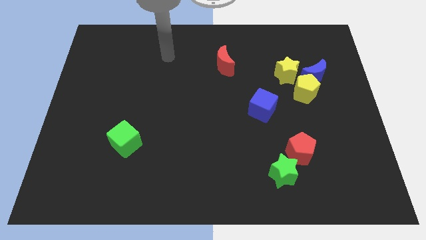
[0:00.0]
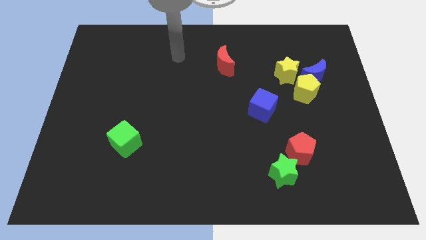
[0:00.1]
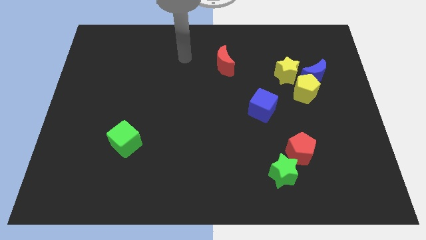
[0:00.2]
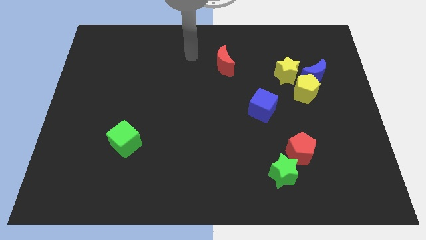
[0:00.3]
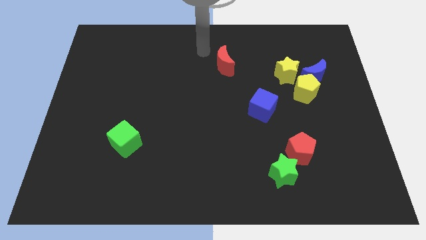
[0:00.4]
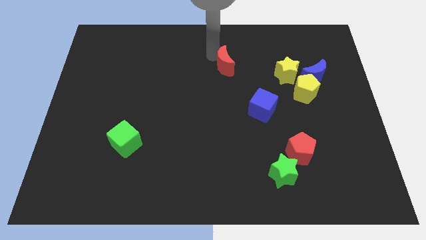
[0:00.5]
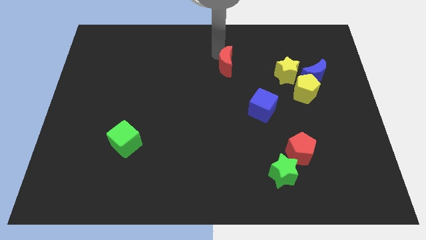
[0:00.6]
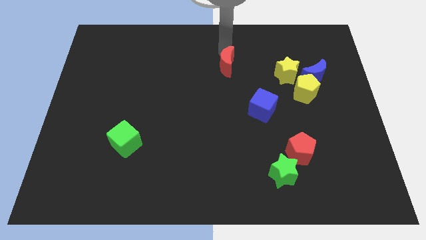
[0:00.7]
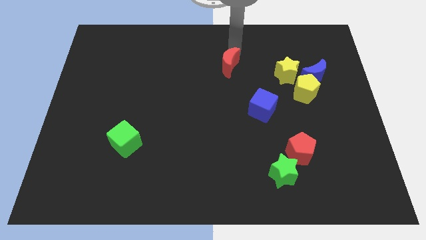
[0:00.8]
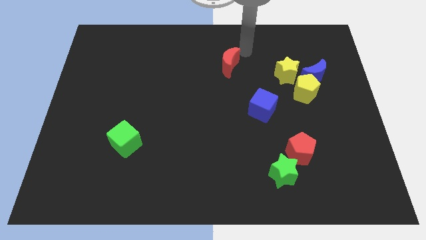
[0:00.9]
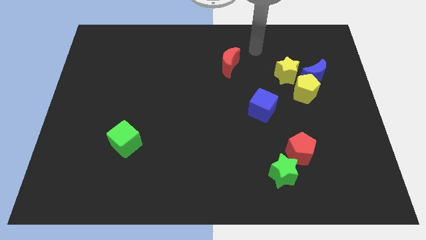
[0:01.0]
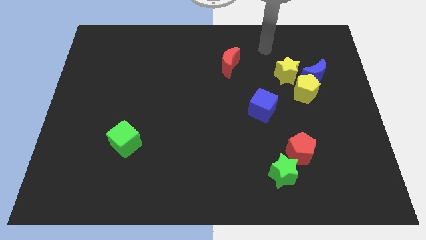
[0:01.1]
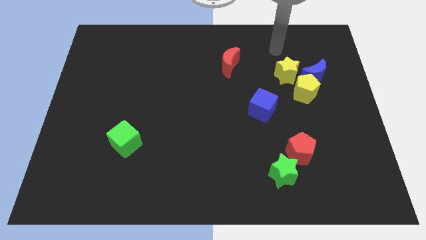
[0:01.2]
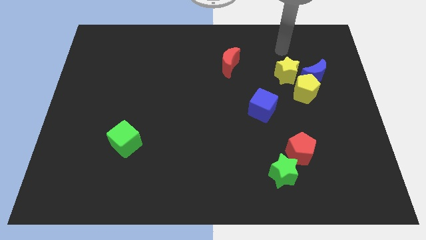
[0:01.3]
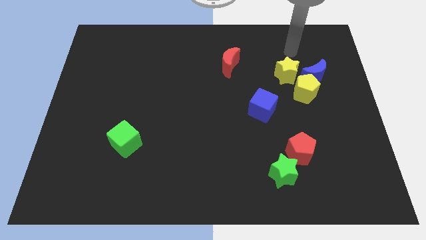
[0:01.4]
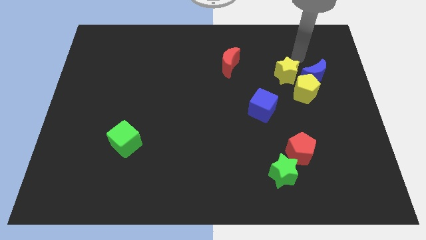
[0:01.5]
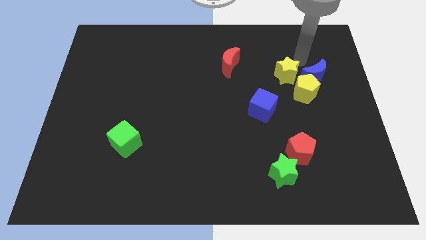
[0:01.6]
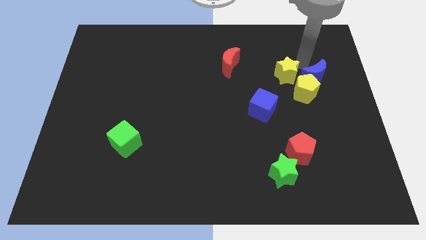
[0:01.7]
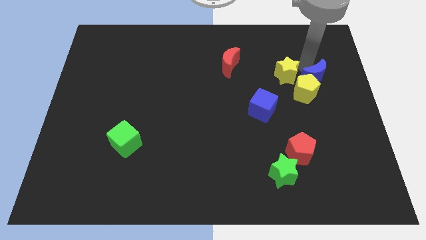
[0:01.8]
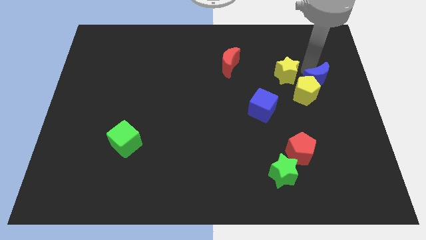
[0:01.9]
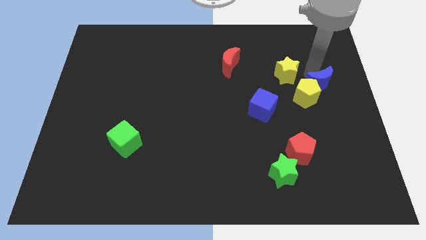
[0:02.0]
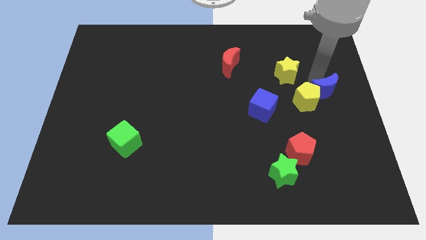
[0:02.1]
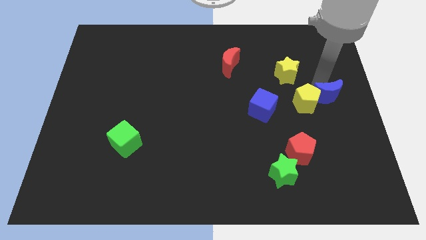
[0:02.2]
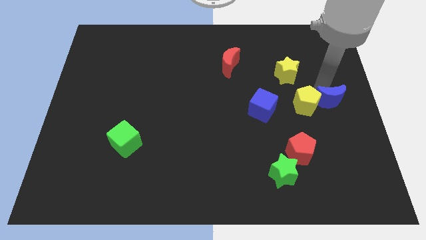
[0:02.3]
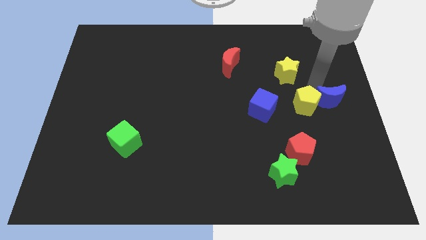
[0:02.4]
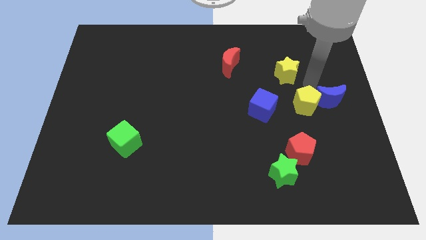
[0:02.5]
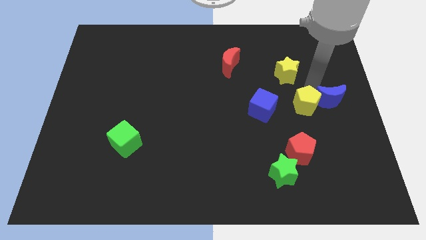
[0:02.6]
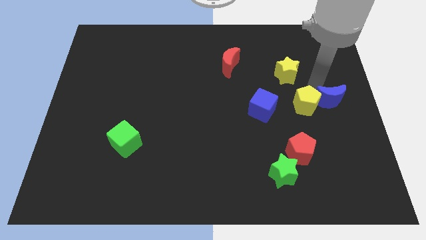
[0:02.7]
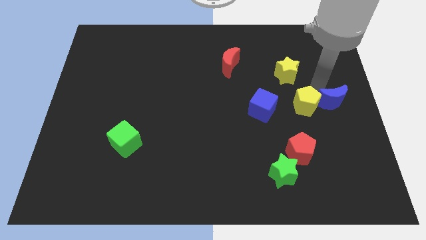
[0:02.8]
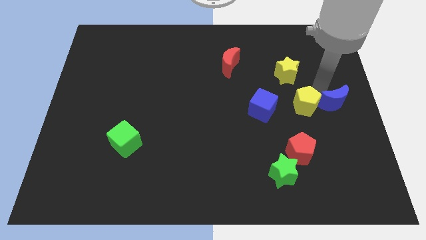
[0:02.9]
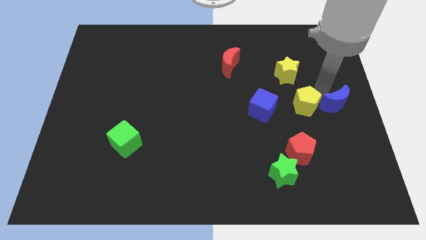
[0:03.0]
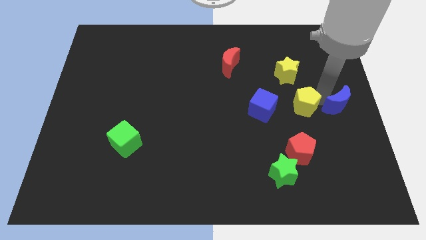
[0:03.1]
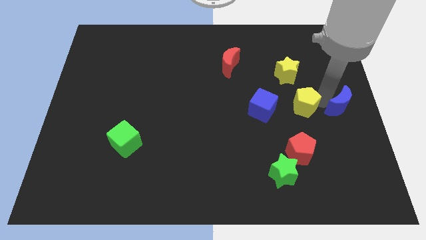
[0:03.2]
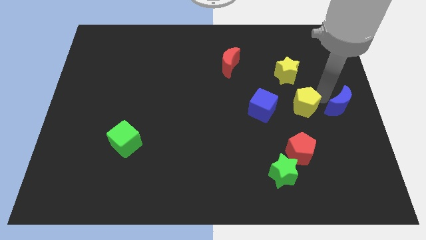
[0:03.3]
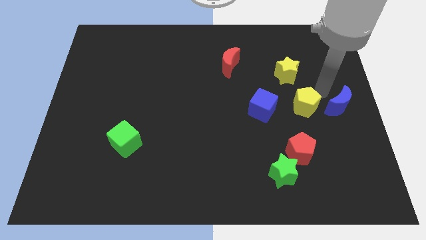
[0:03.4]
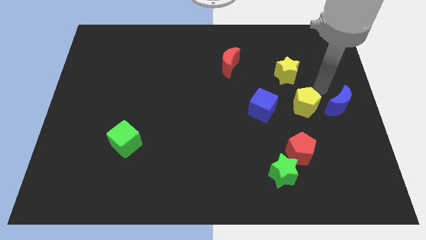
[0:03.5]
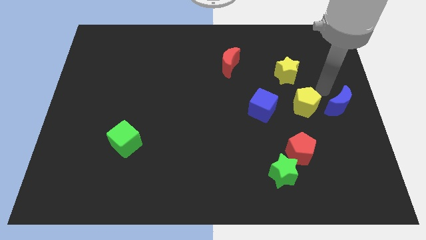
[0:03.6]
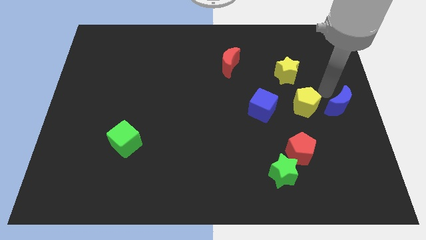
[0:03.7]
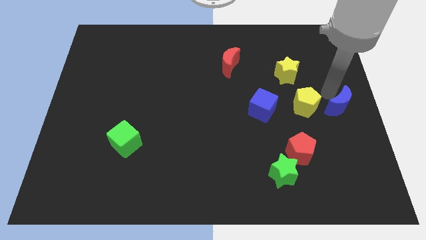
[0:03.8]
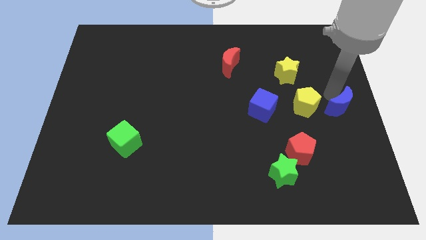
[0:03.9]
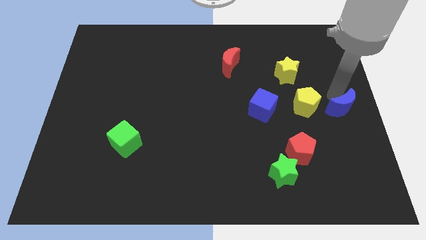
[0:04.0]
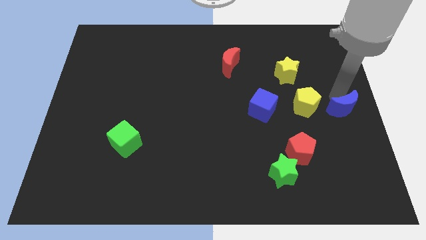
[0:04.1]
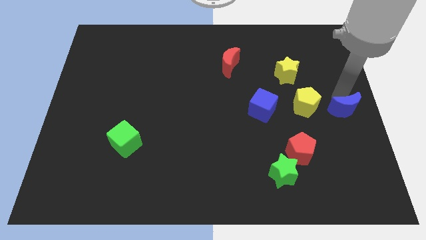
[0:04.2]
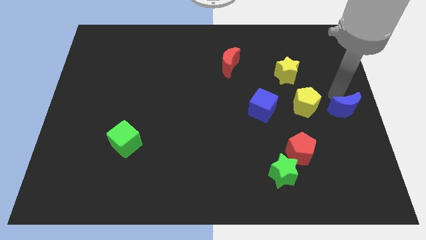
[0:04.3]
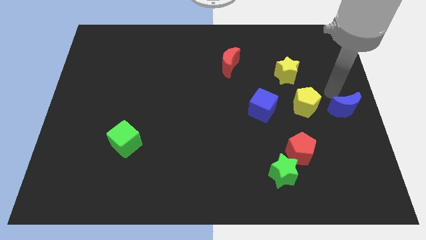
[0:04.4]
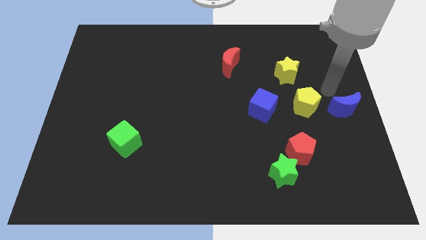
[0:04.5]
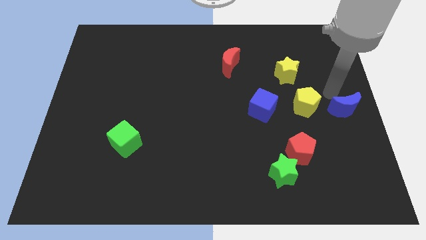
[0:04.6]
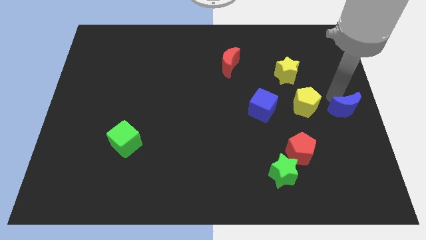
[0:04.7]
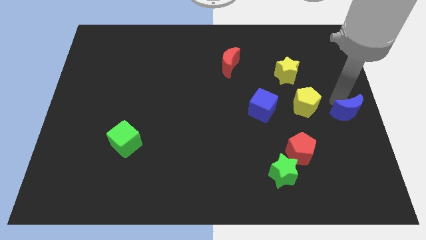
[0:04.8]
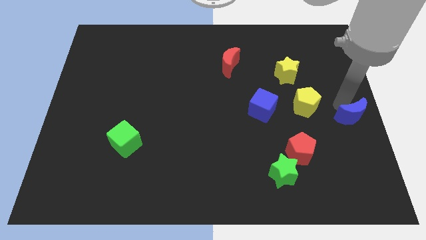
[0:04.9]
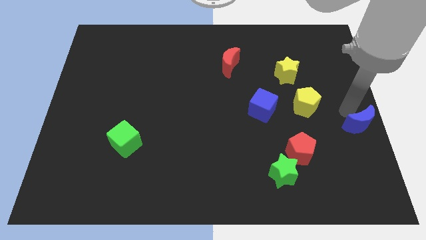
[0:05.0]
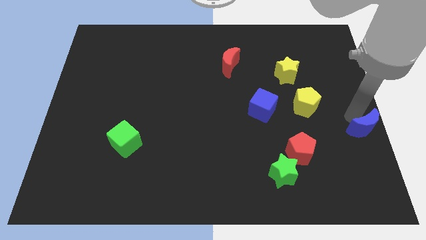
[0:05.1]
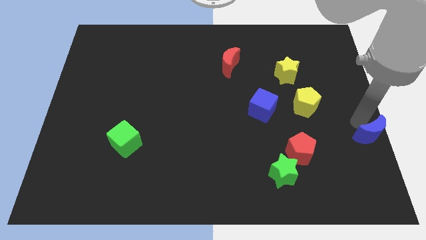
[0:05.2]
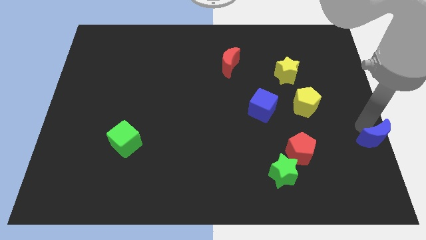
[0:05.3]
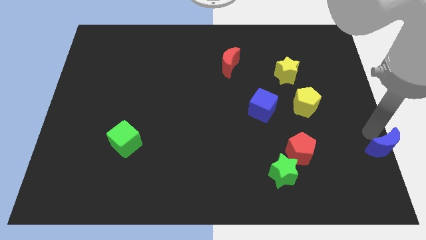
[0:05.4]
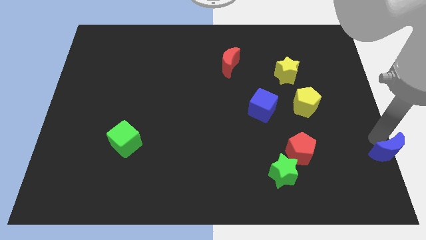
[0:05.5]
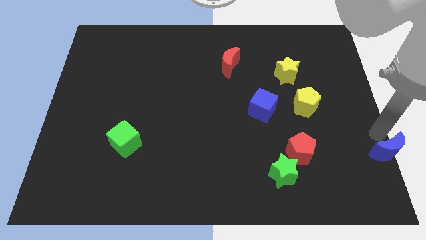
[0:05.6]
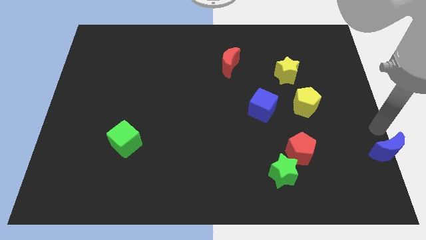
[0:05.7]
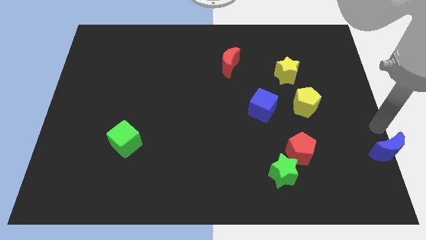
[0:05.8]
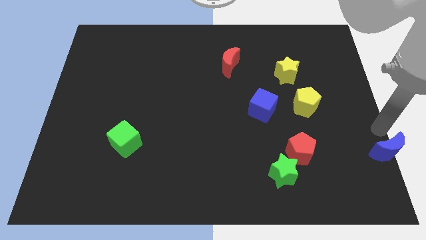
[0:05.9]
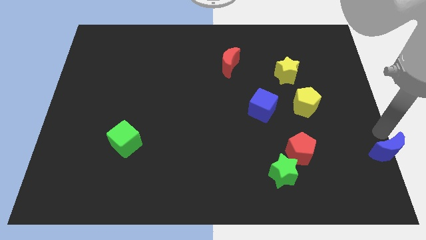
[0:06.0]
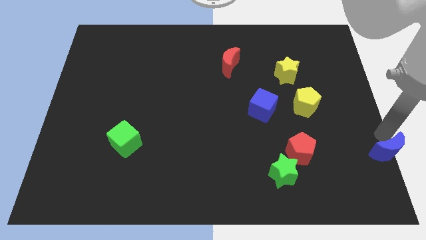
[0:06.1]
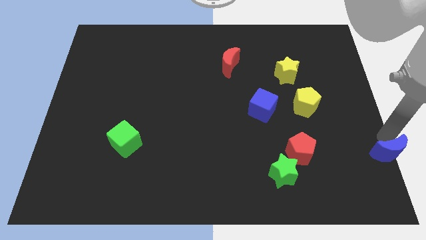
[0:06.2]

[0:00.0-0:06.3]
slide the blue moon to the bottom right of the board
